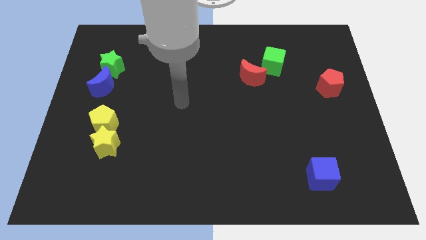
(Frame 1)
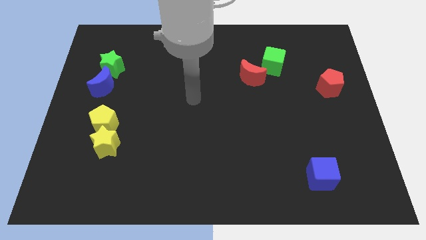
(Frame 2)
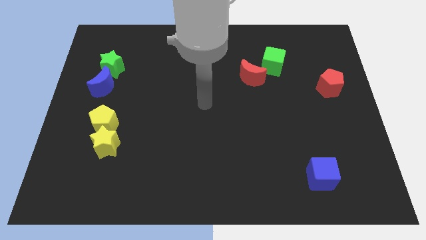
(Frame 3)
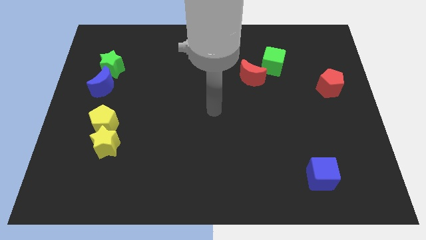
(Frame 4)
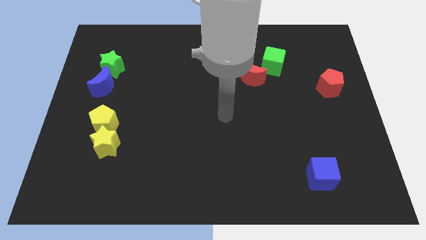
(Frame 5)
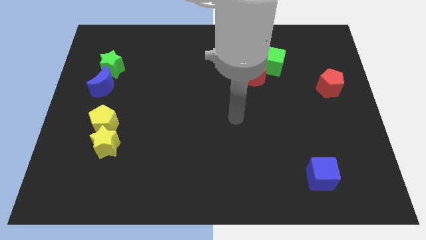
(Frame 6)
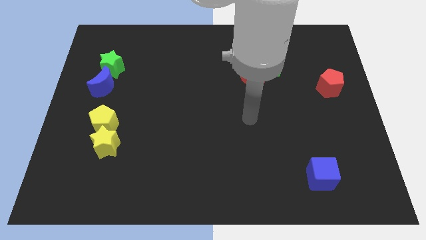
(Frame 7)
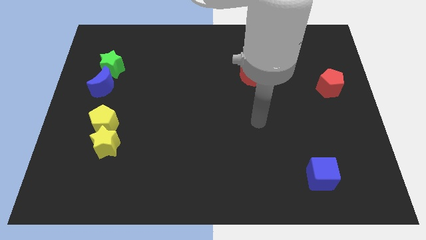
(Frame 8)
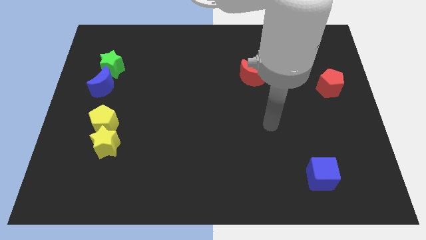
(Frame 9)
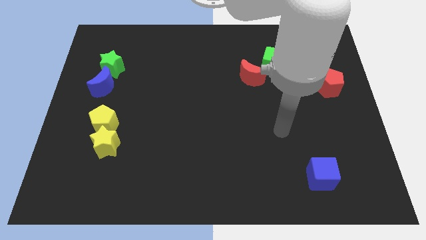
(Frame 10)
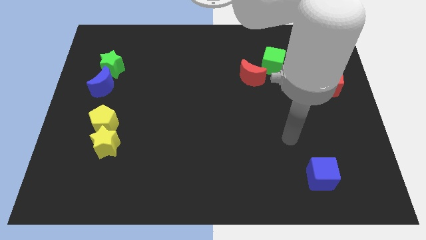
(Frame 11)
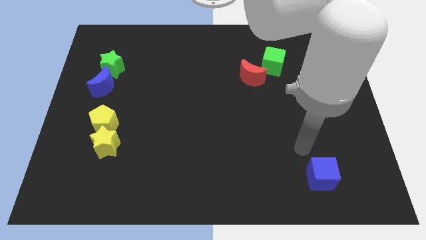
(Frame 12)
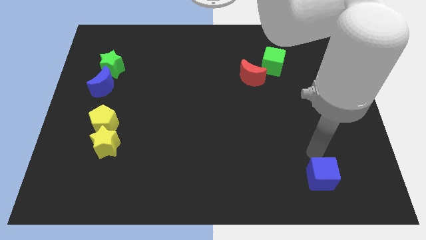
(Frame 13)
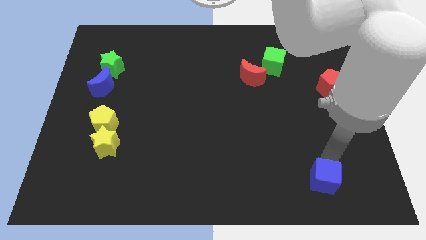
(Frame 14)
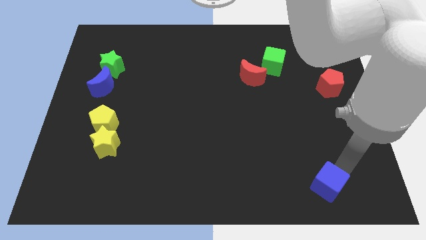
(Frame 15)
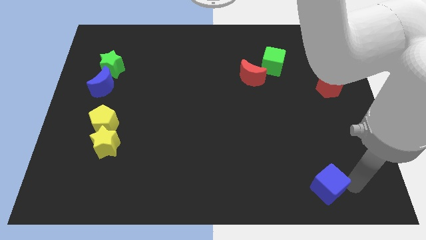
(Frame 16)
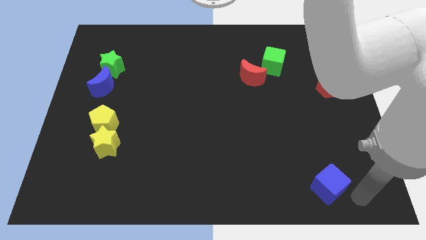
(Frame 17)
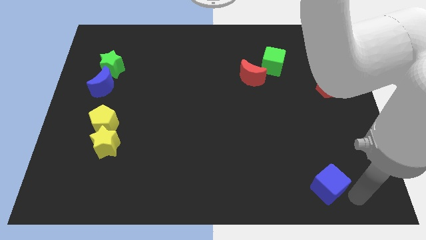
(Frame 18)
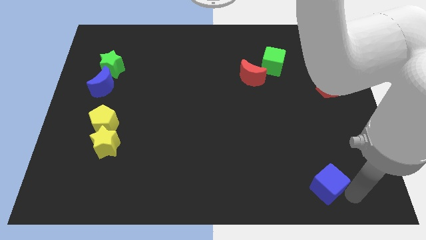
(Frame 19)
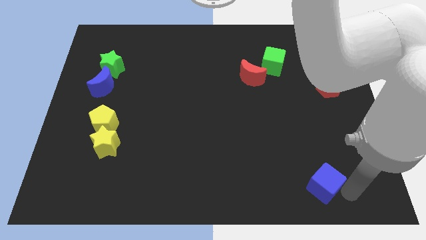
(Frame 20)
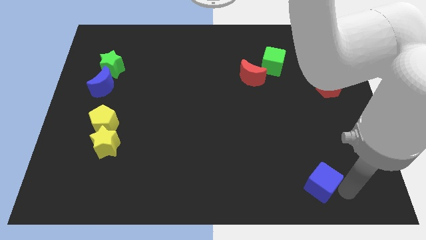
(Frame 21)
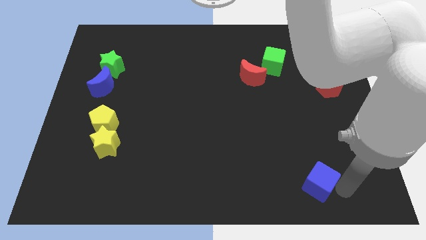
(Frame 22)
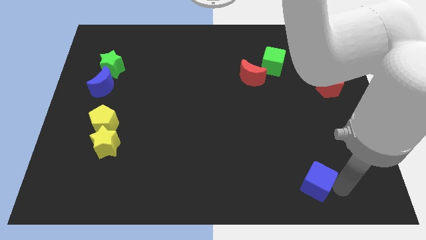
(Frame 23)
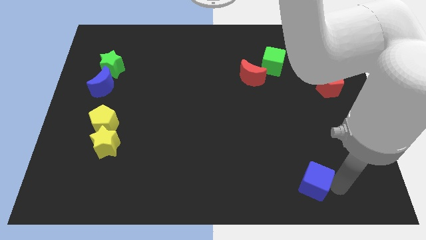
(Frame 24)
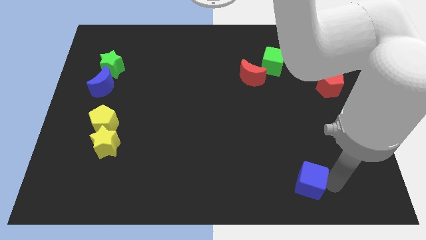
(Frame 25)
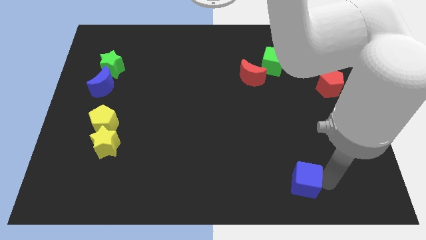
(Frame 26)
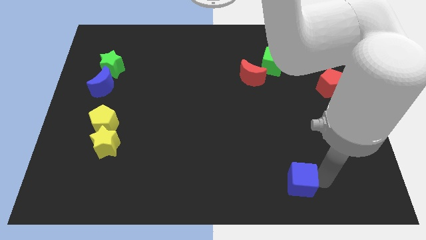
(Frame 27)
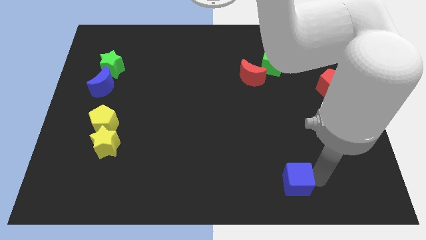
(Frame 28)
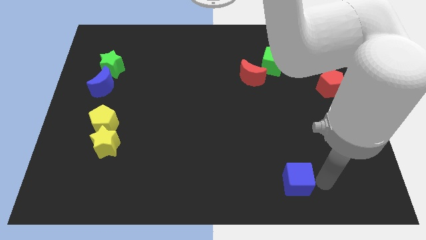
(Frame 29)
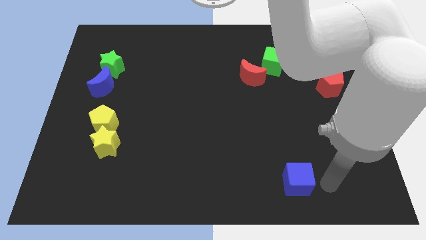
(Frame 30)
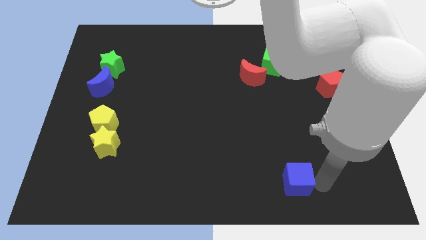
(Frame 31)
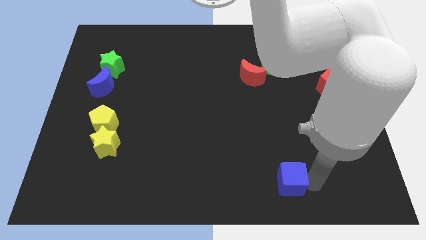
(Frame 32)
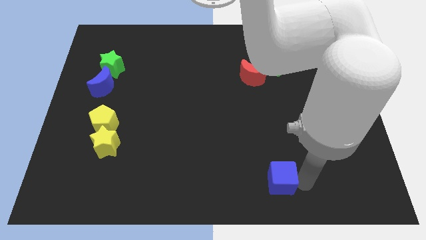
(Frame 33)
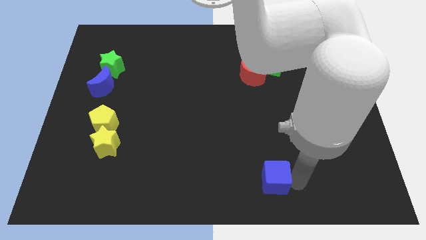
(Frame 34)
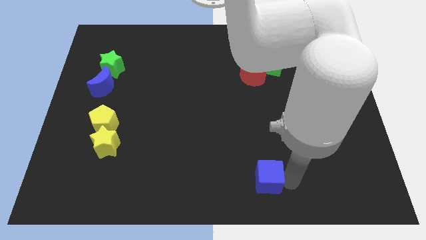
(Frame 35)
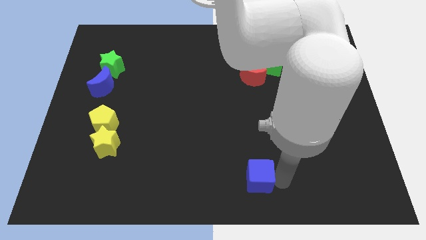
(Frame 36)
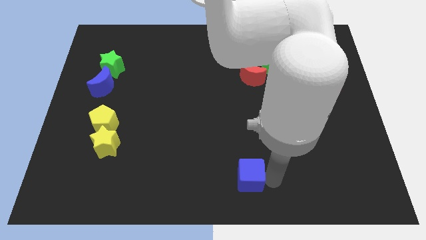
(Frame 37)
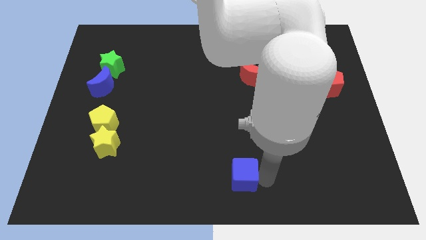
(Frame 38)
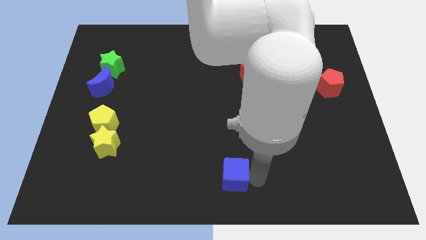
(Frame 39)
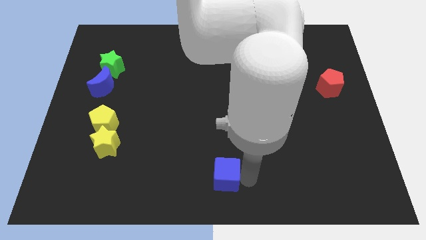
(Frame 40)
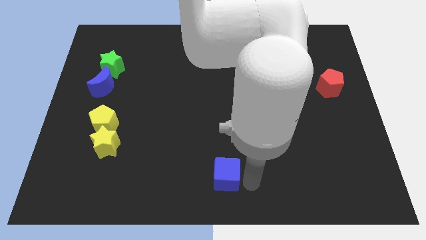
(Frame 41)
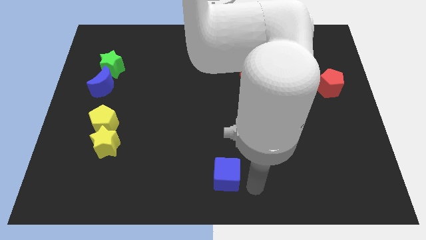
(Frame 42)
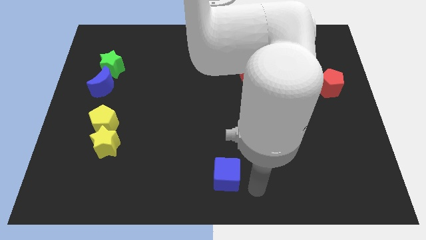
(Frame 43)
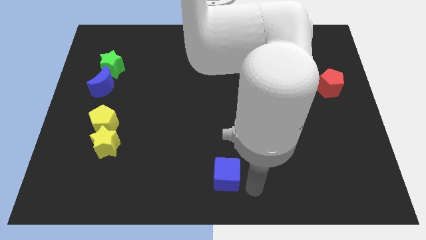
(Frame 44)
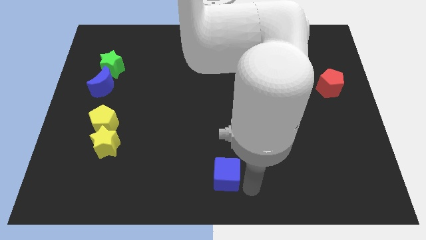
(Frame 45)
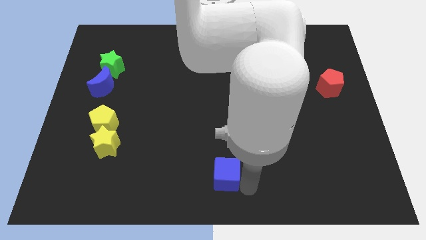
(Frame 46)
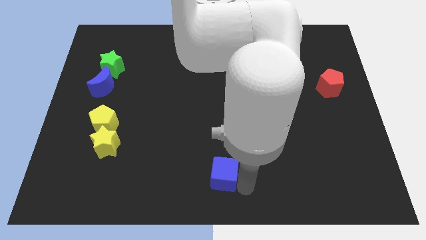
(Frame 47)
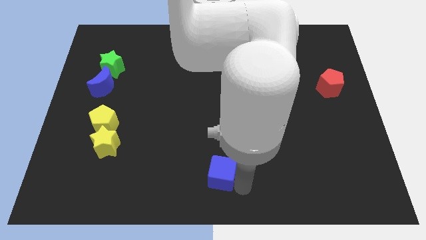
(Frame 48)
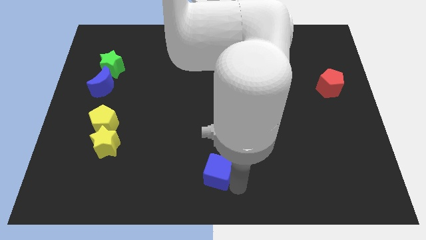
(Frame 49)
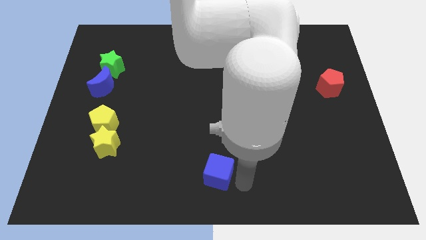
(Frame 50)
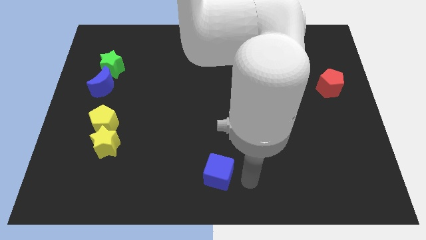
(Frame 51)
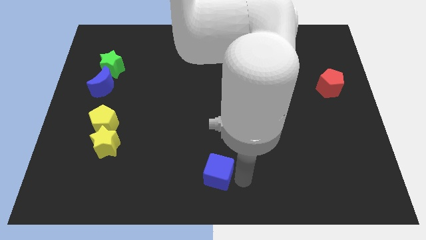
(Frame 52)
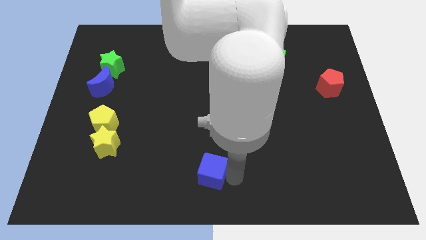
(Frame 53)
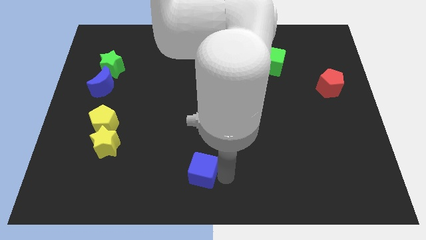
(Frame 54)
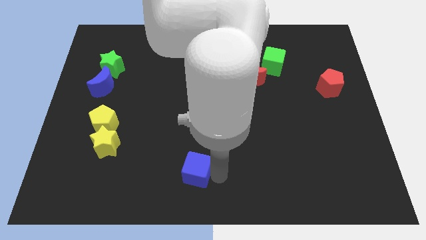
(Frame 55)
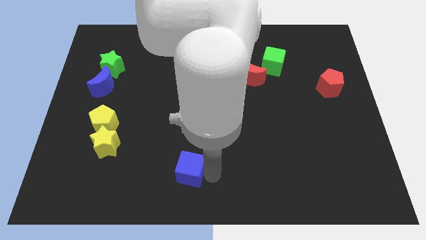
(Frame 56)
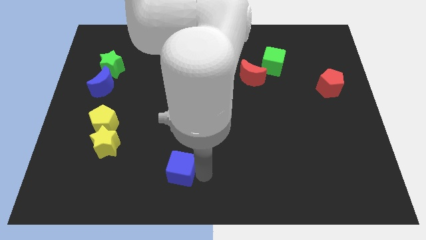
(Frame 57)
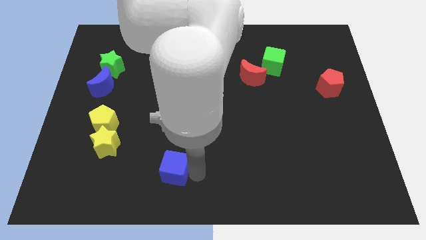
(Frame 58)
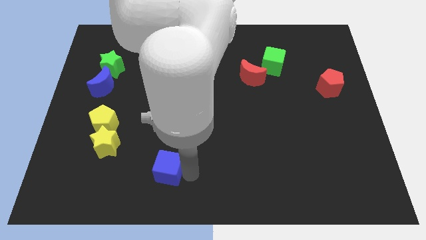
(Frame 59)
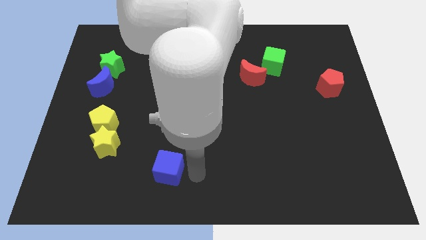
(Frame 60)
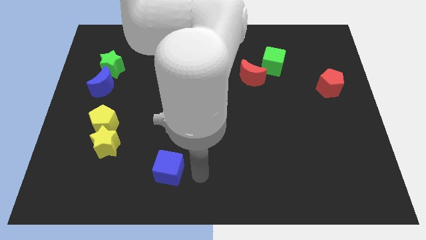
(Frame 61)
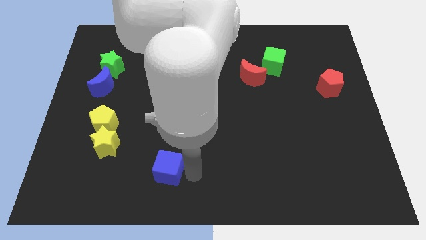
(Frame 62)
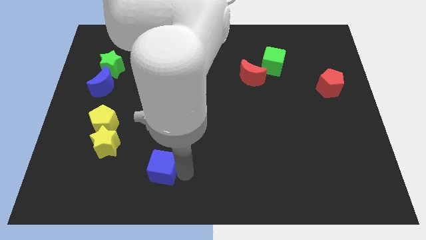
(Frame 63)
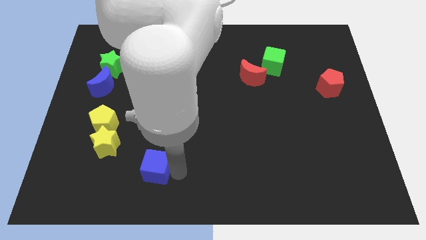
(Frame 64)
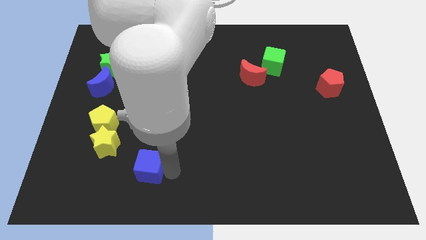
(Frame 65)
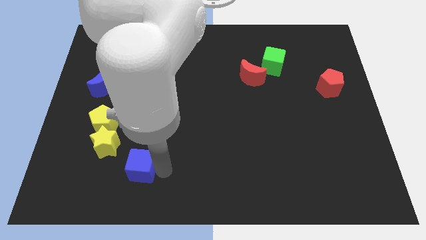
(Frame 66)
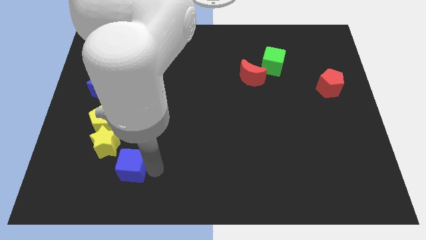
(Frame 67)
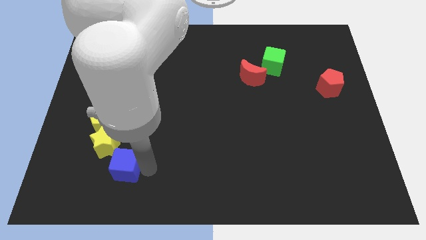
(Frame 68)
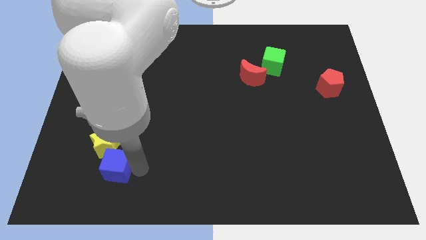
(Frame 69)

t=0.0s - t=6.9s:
push the blue cube to the bottom of the yellow pentagon
